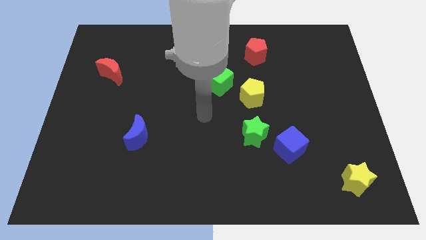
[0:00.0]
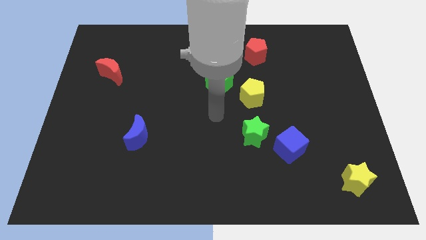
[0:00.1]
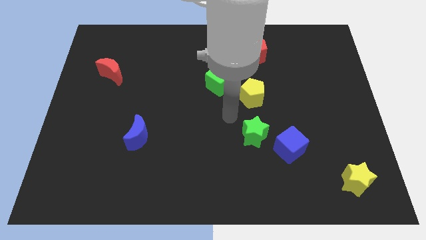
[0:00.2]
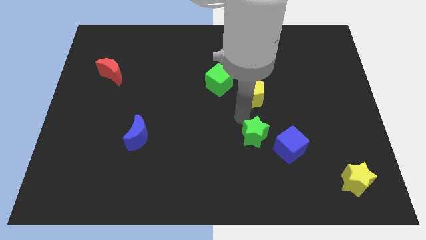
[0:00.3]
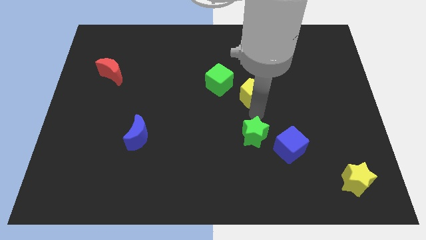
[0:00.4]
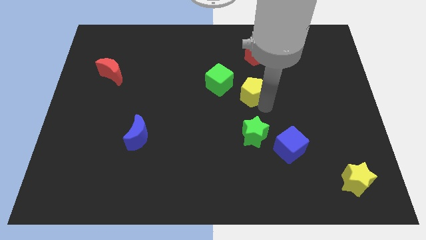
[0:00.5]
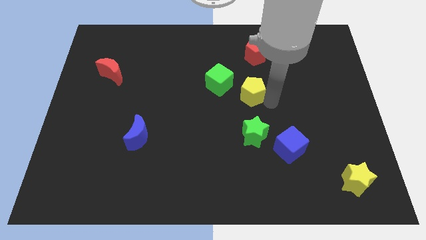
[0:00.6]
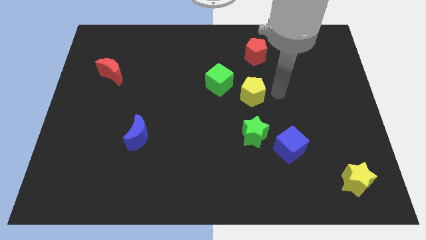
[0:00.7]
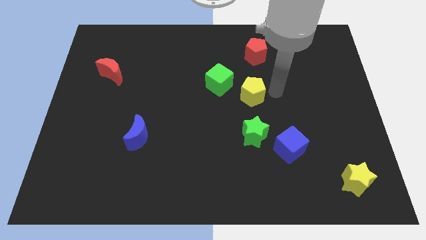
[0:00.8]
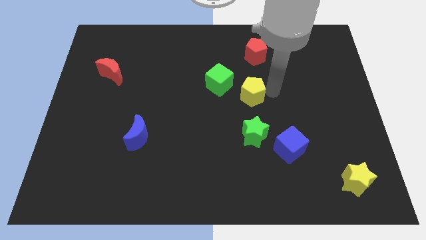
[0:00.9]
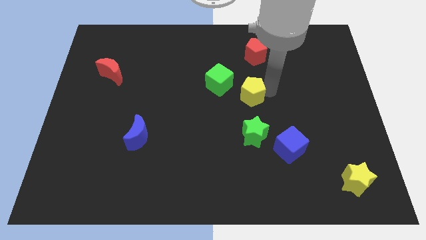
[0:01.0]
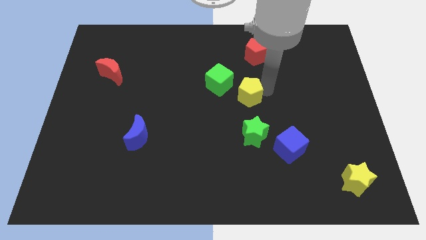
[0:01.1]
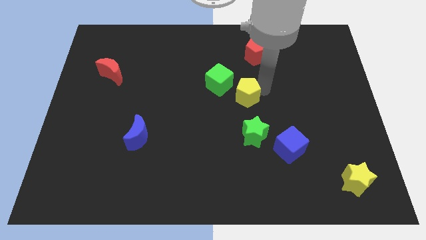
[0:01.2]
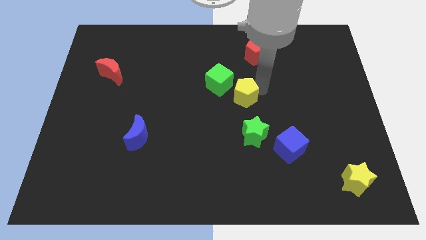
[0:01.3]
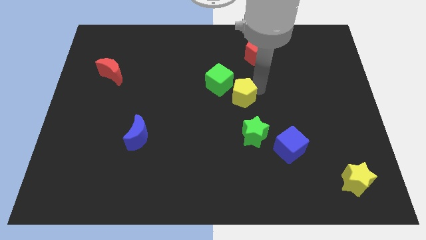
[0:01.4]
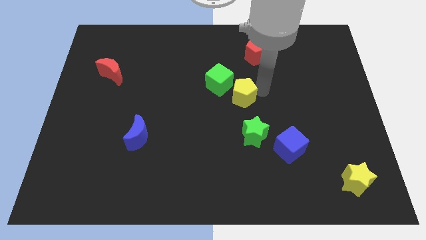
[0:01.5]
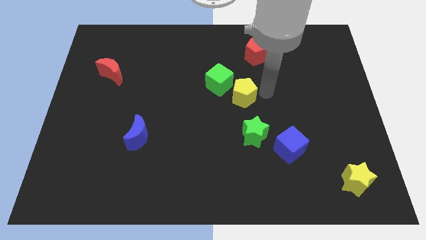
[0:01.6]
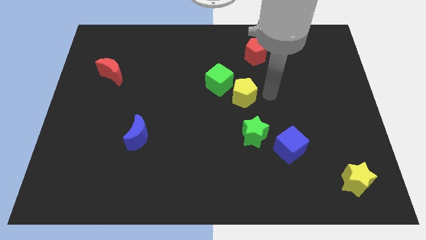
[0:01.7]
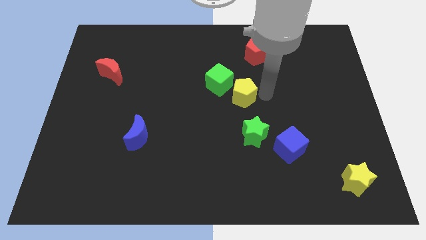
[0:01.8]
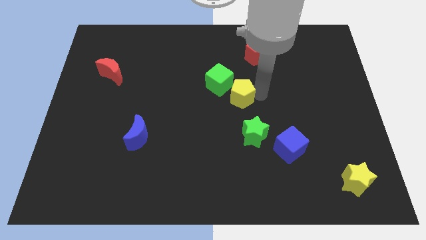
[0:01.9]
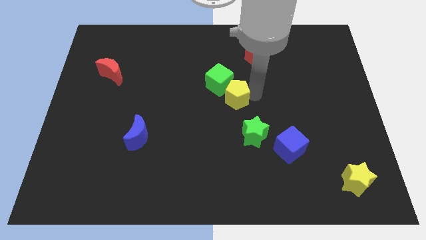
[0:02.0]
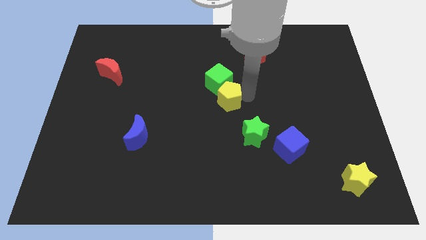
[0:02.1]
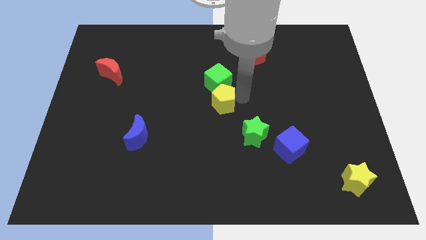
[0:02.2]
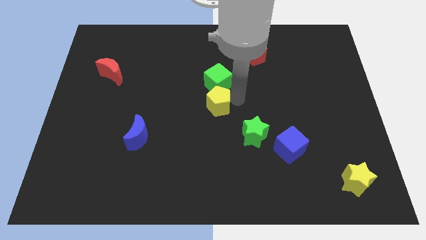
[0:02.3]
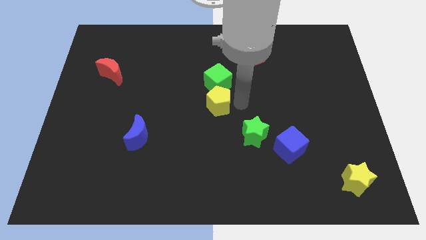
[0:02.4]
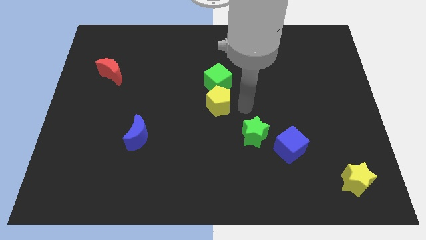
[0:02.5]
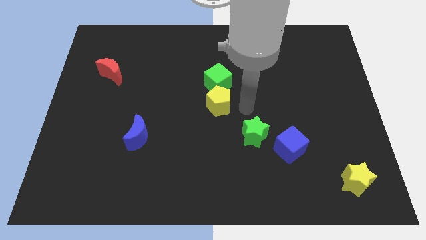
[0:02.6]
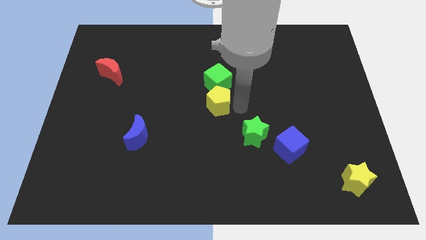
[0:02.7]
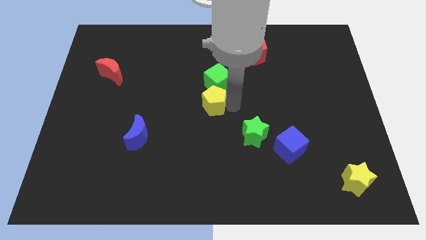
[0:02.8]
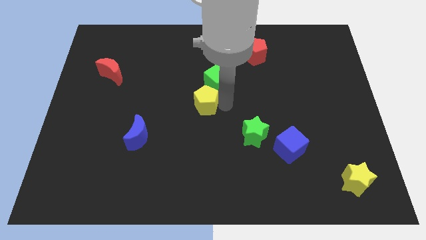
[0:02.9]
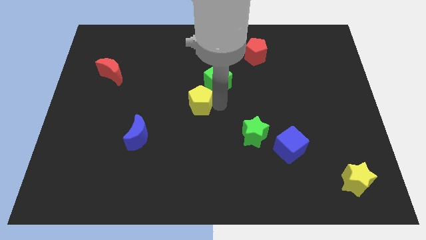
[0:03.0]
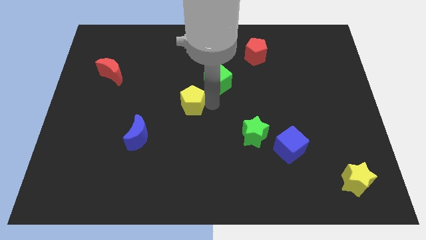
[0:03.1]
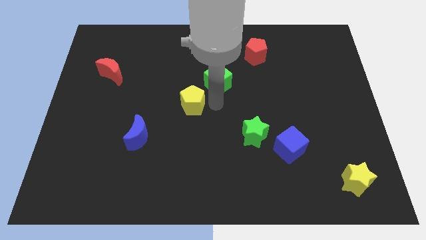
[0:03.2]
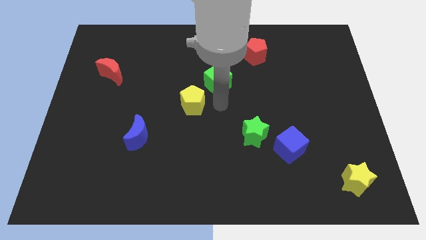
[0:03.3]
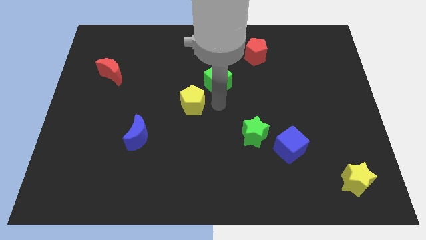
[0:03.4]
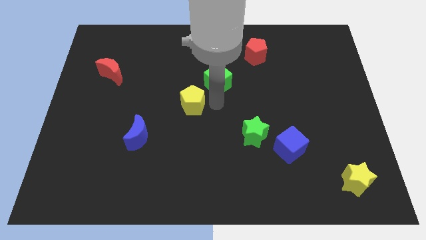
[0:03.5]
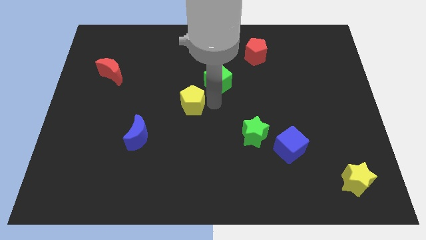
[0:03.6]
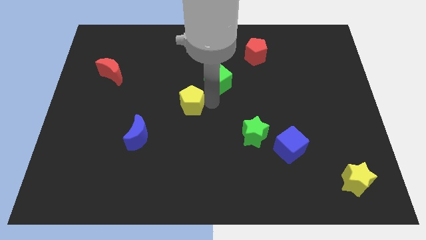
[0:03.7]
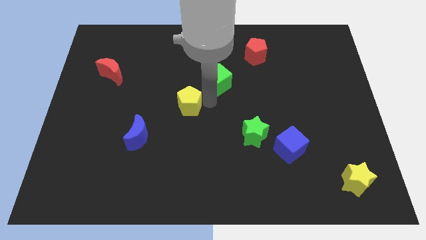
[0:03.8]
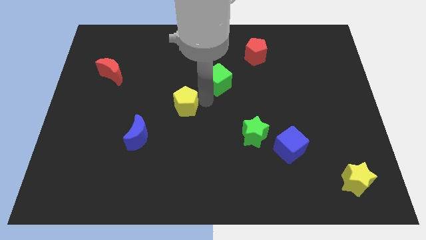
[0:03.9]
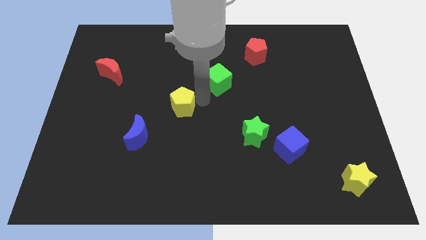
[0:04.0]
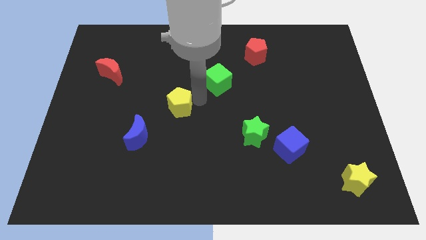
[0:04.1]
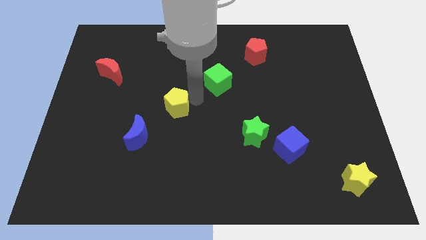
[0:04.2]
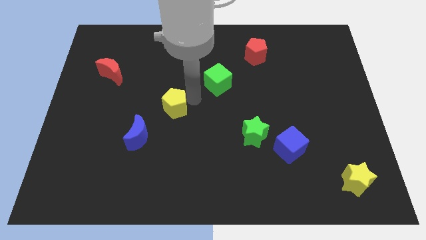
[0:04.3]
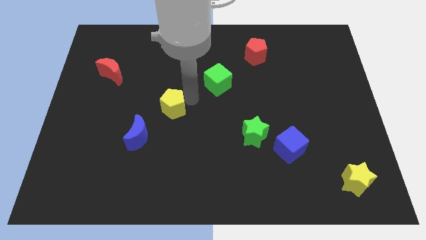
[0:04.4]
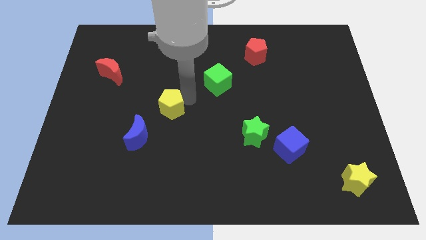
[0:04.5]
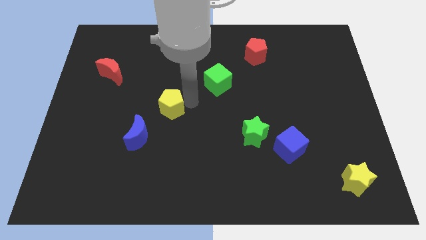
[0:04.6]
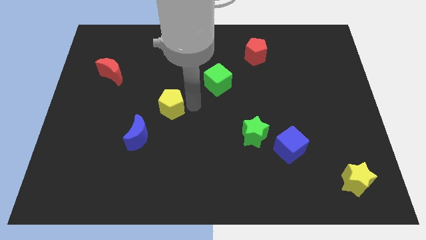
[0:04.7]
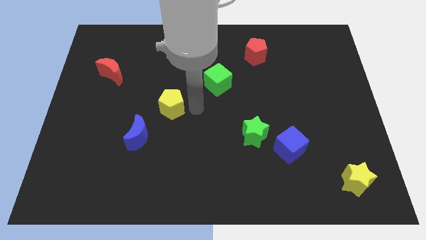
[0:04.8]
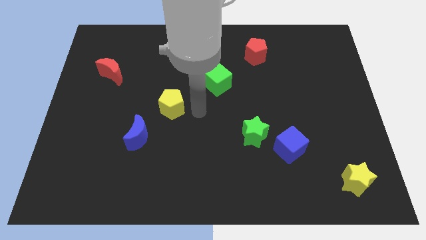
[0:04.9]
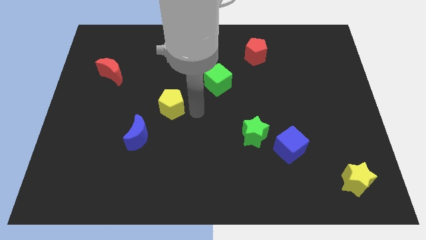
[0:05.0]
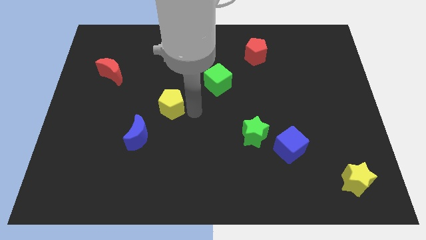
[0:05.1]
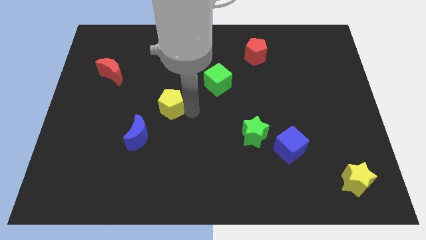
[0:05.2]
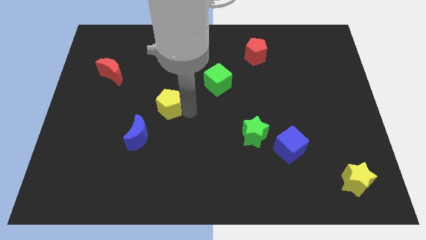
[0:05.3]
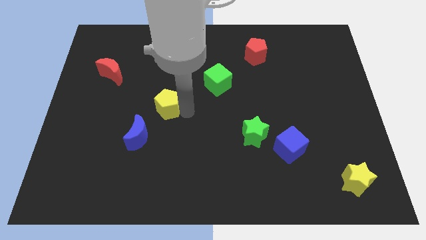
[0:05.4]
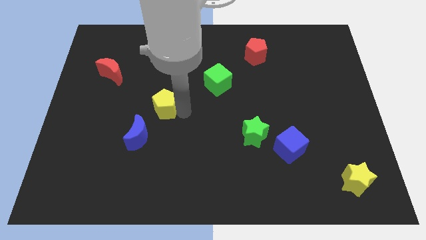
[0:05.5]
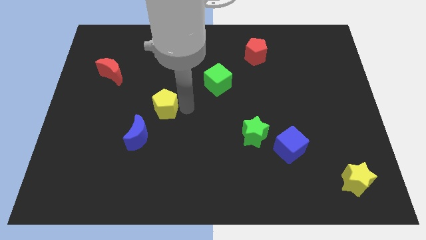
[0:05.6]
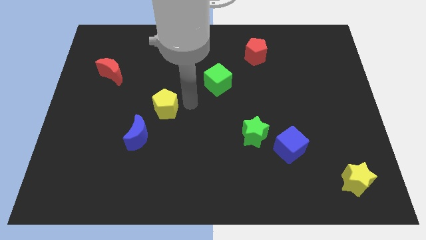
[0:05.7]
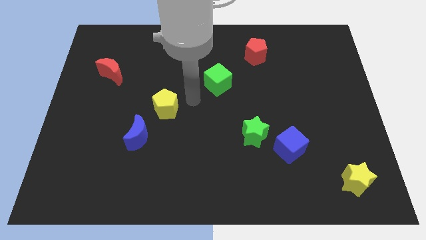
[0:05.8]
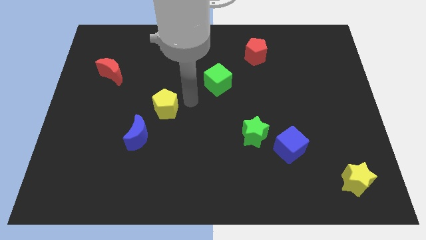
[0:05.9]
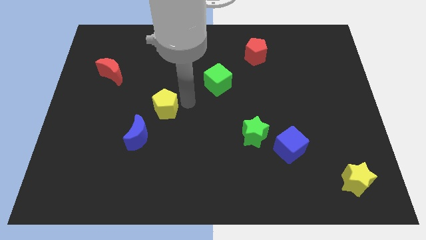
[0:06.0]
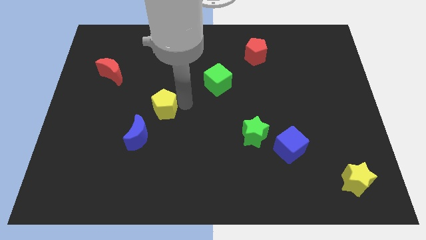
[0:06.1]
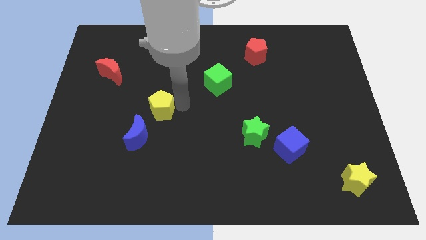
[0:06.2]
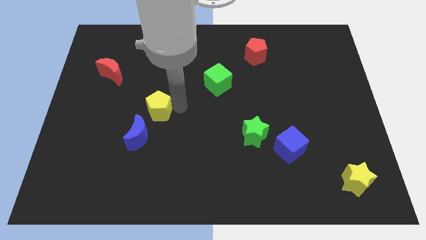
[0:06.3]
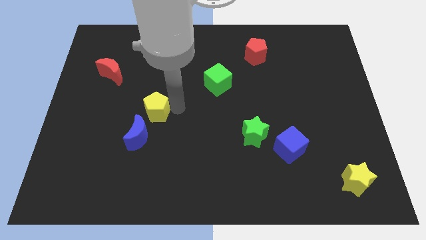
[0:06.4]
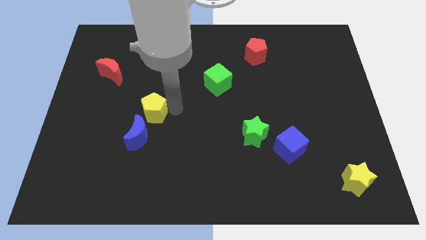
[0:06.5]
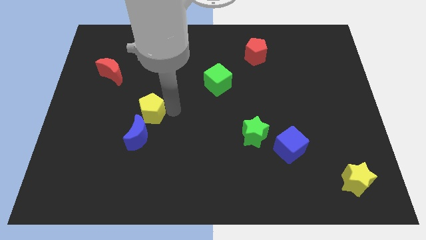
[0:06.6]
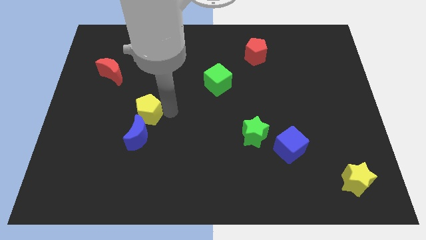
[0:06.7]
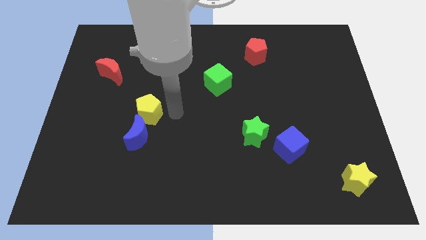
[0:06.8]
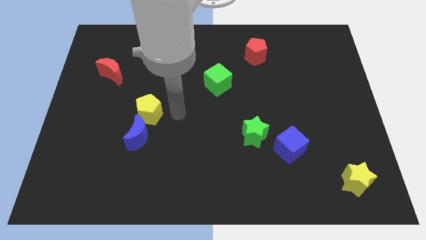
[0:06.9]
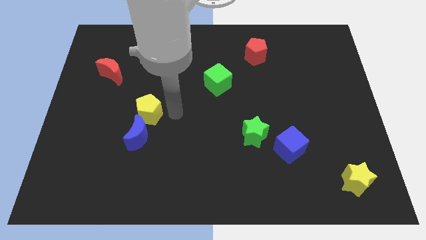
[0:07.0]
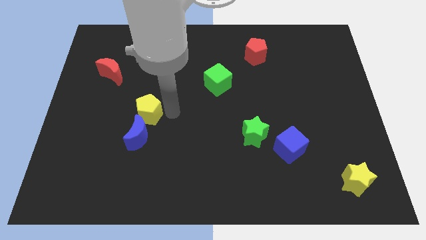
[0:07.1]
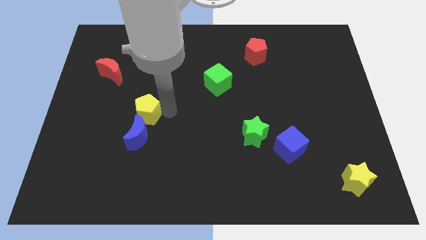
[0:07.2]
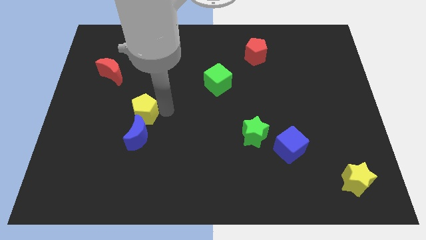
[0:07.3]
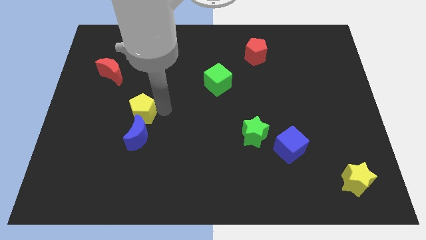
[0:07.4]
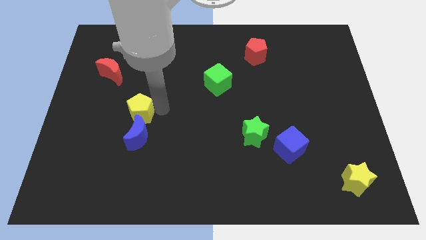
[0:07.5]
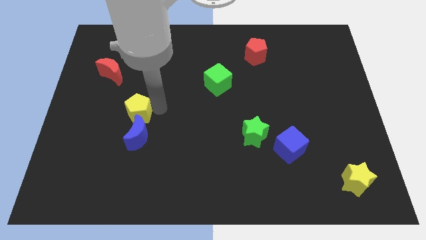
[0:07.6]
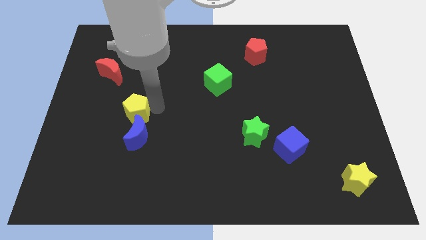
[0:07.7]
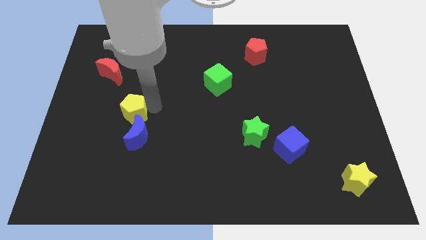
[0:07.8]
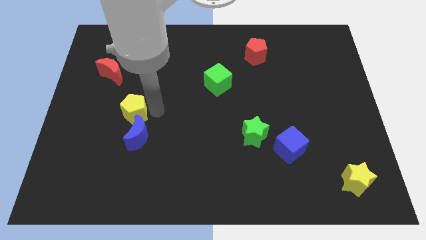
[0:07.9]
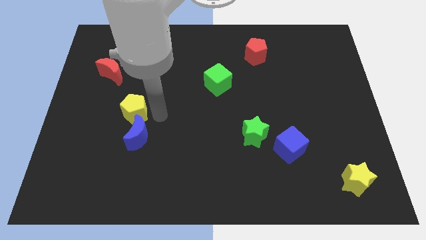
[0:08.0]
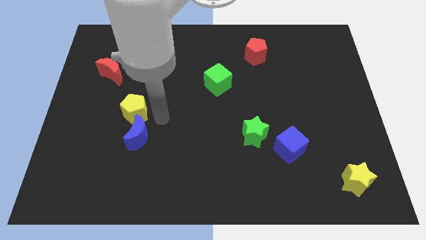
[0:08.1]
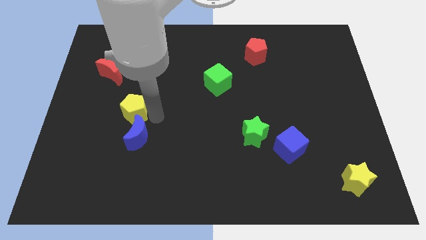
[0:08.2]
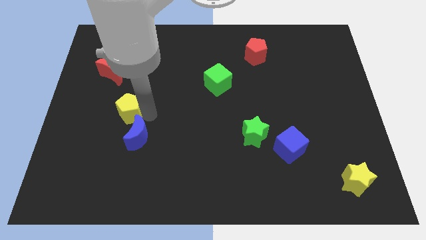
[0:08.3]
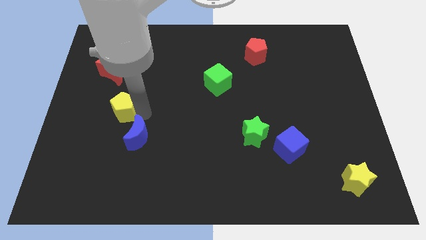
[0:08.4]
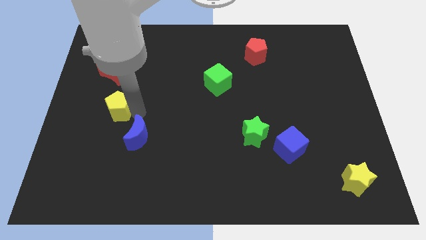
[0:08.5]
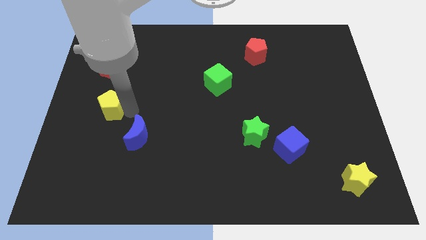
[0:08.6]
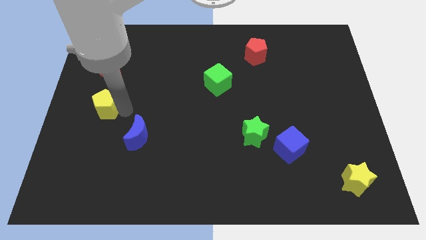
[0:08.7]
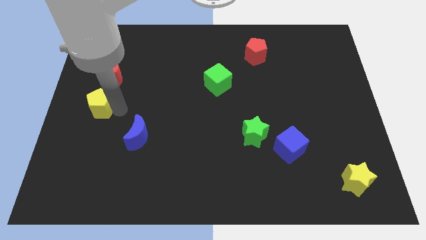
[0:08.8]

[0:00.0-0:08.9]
put the yellow pentagon to the center left
